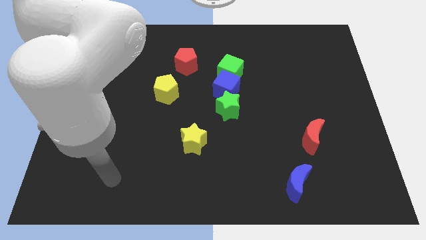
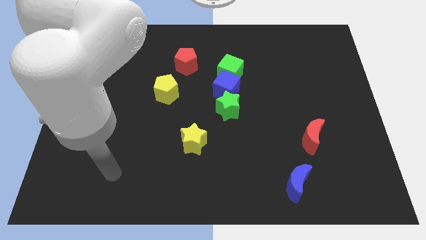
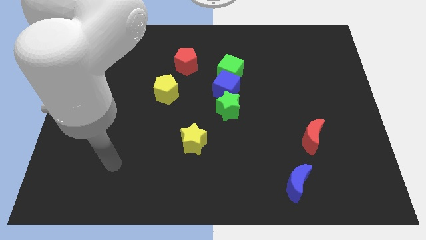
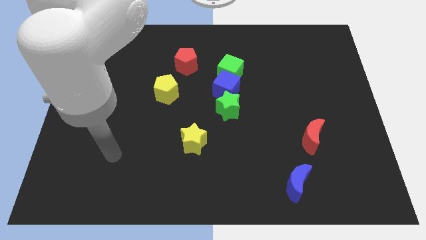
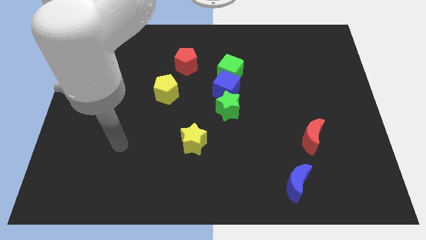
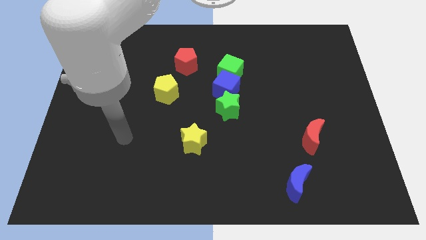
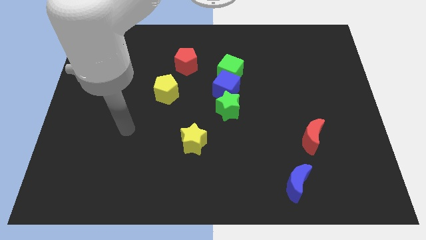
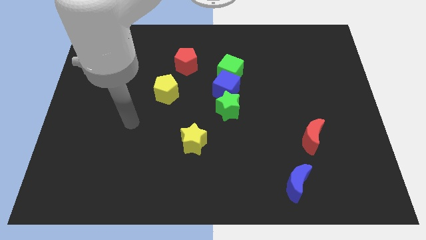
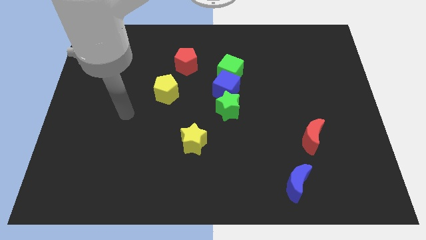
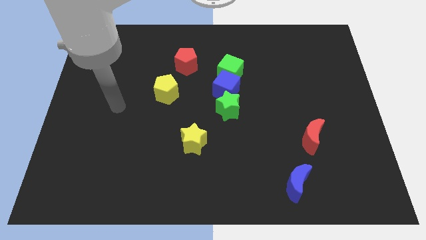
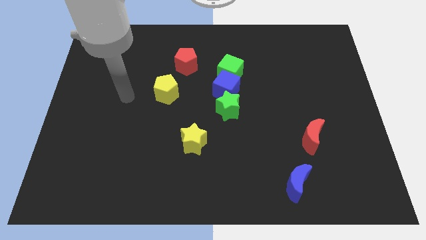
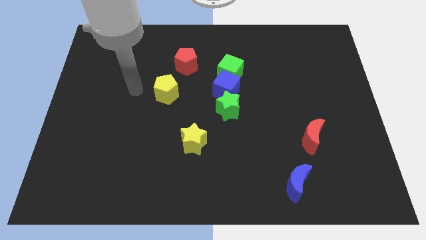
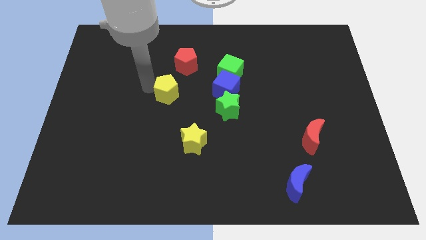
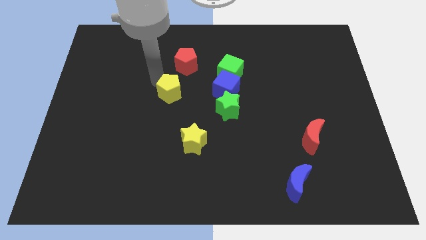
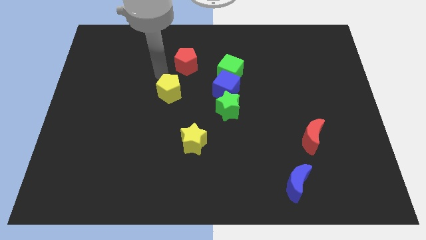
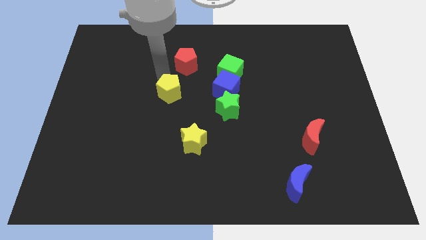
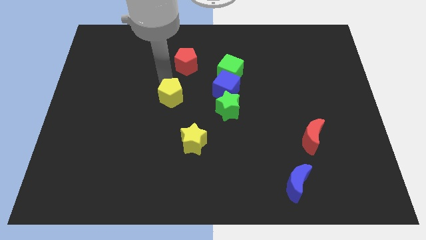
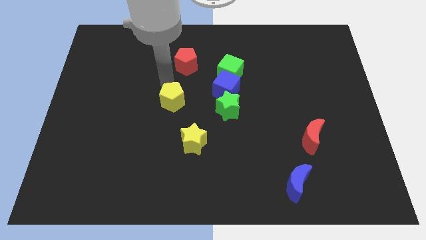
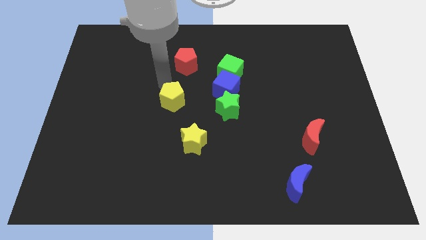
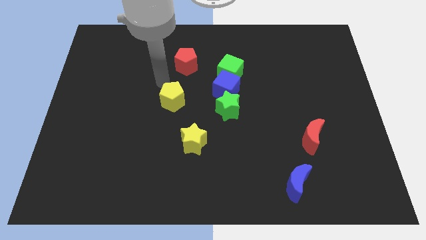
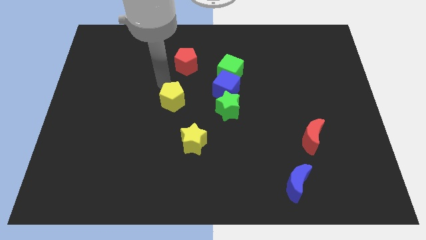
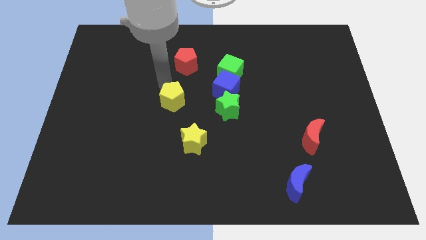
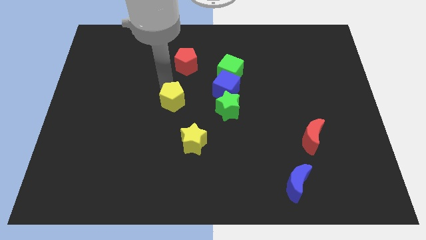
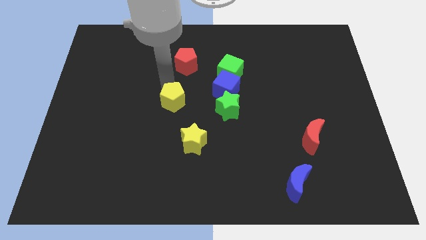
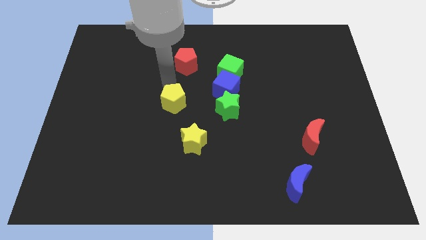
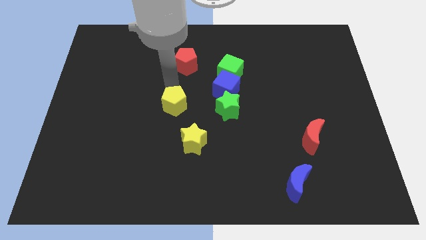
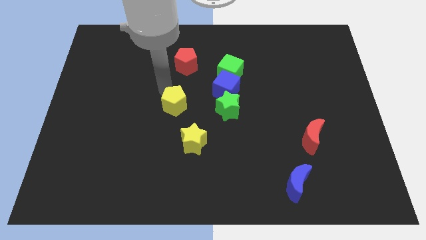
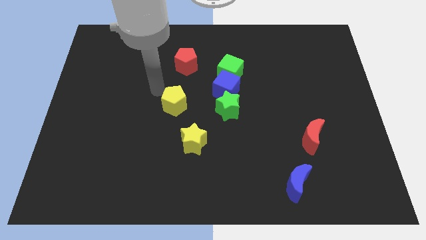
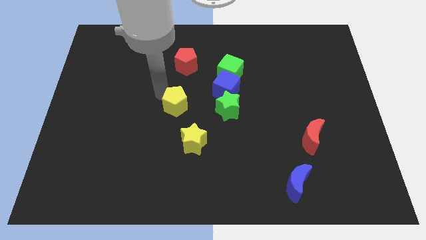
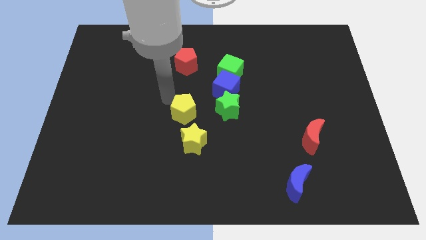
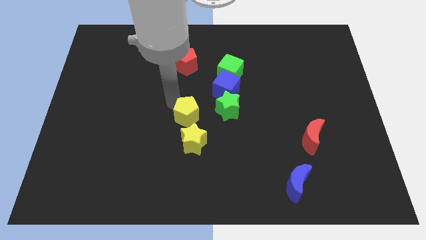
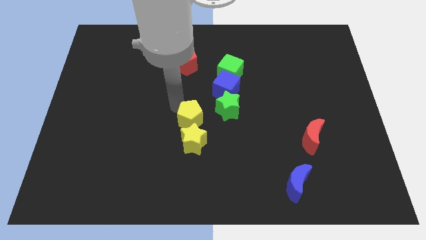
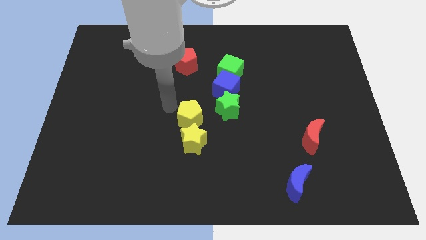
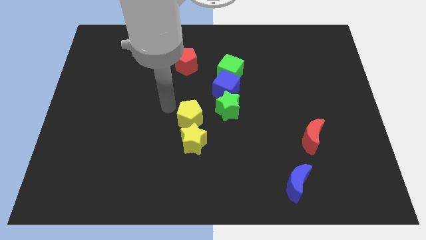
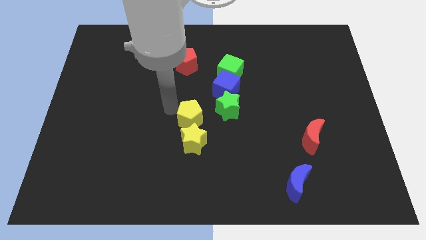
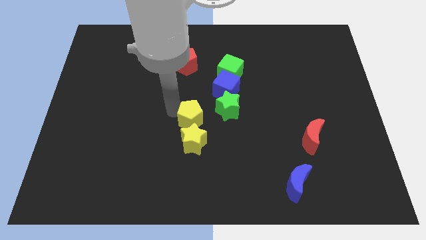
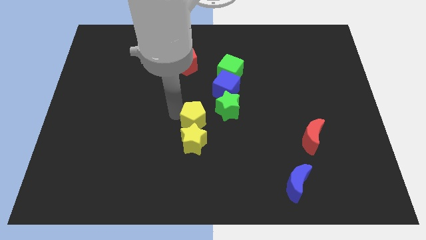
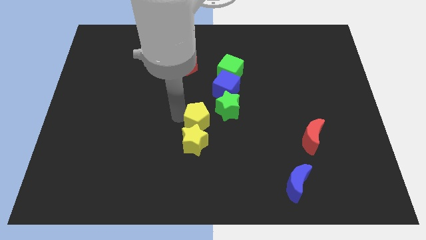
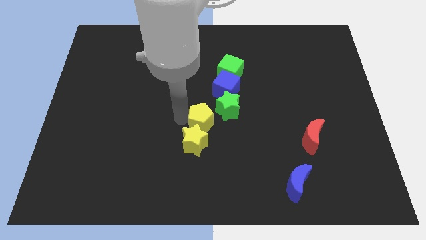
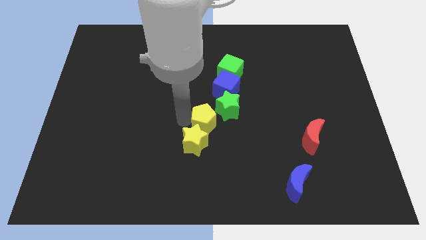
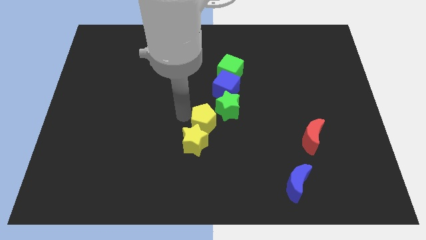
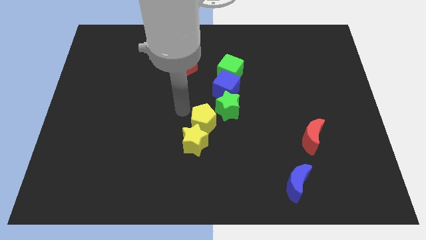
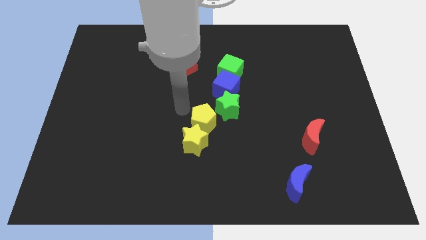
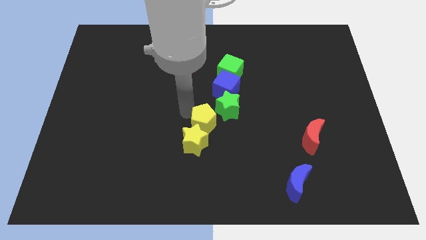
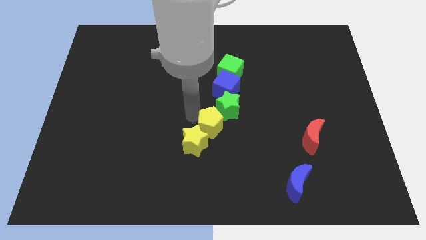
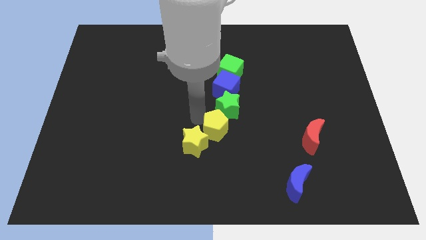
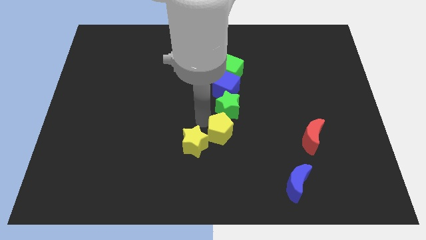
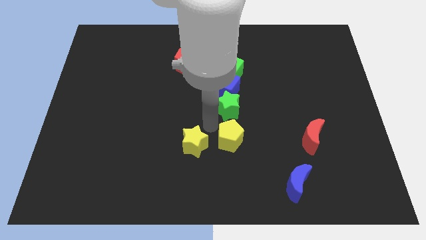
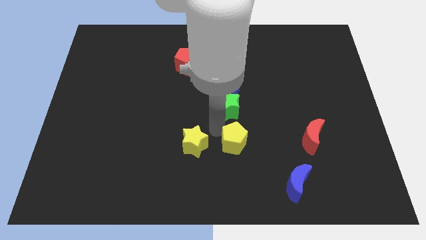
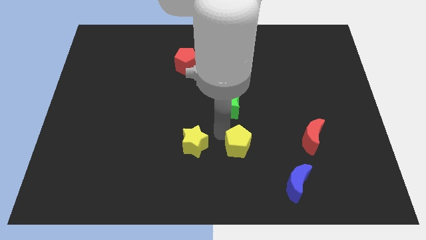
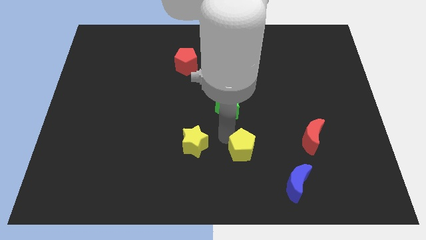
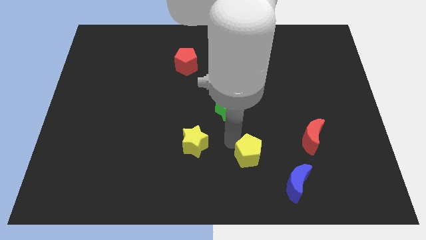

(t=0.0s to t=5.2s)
push the yellow pentagon diagonally up and to the left of the blue moon

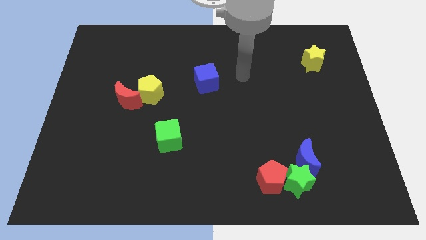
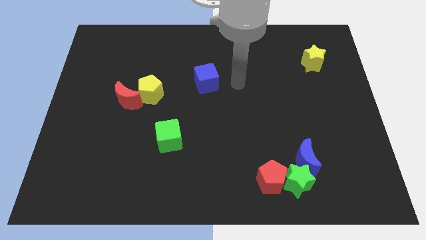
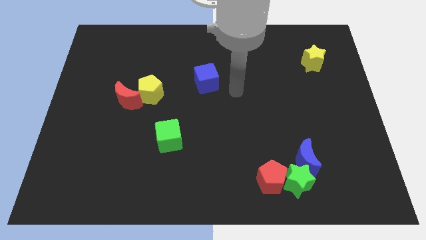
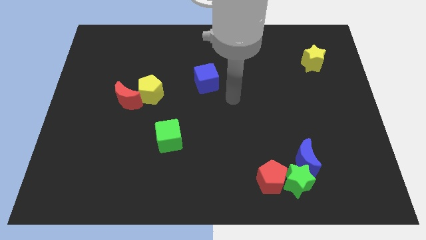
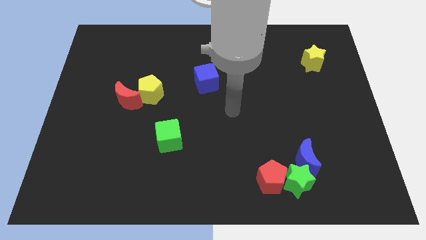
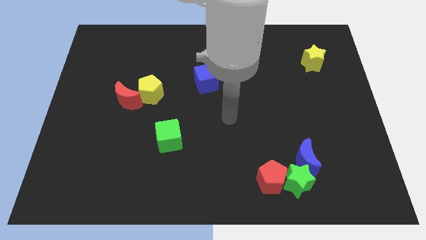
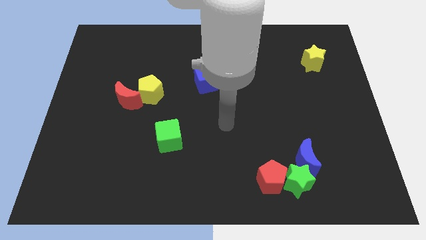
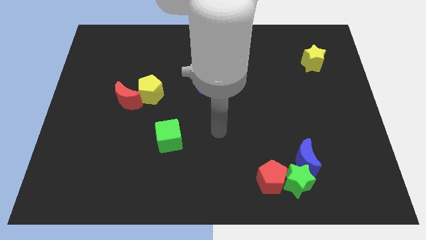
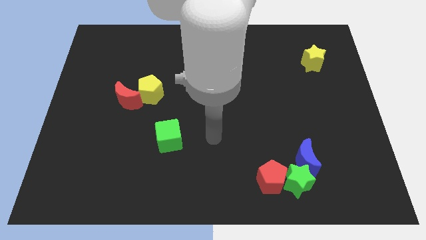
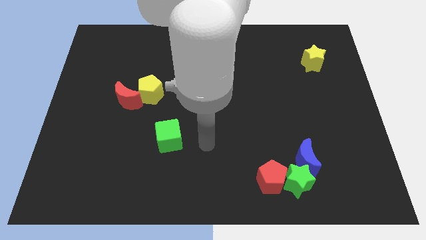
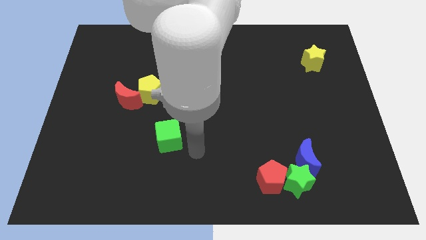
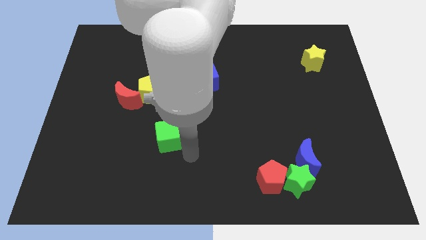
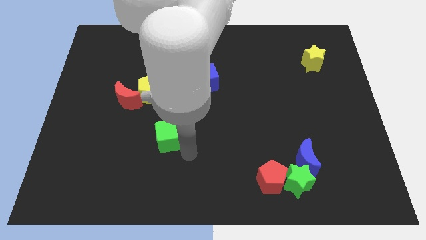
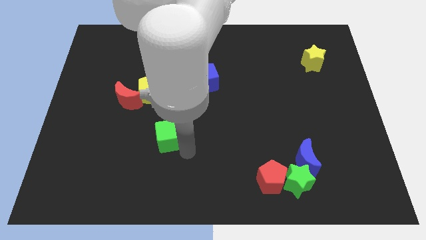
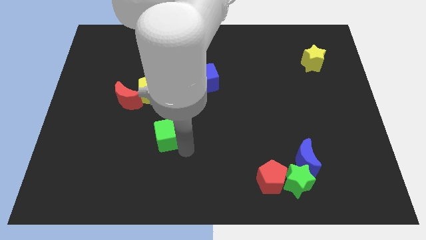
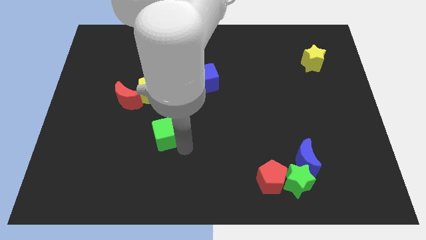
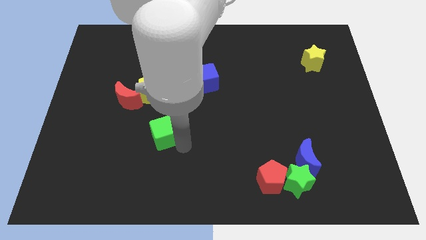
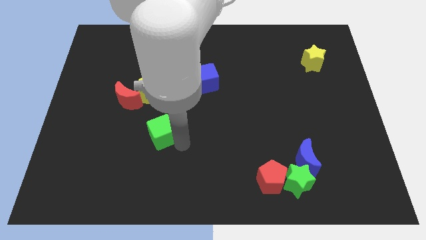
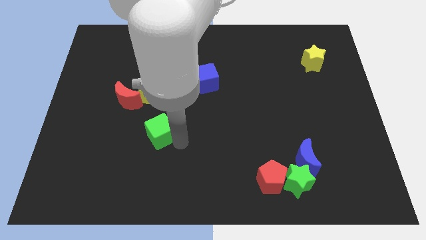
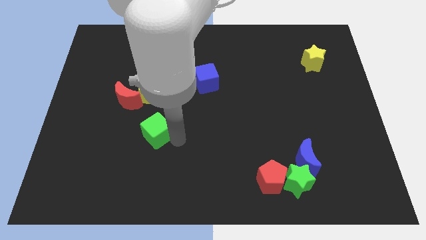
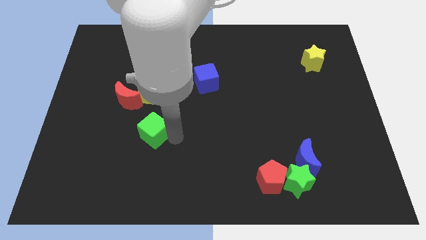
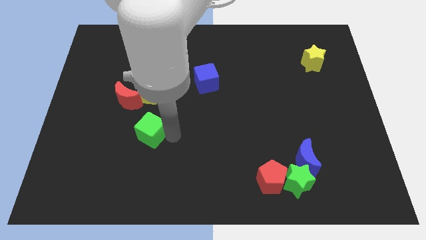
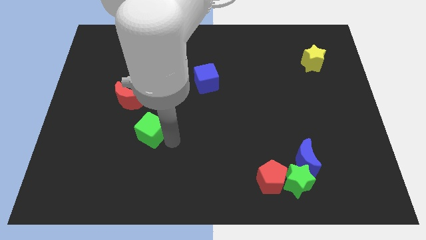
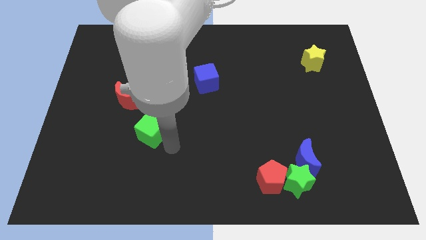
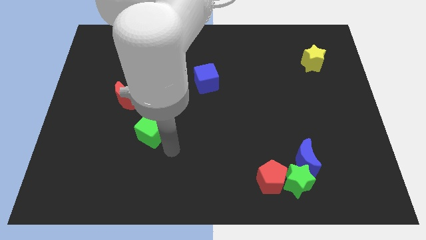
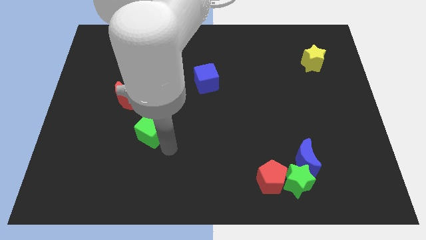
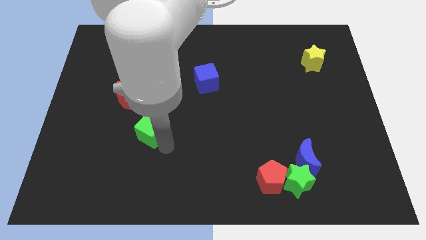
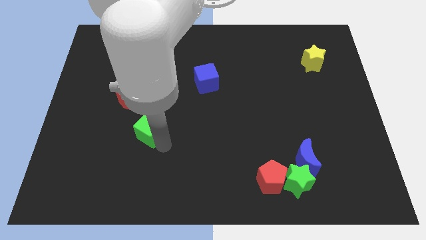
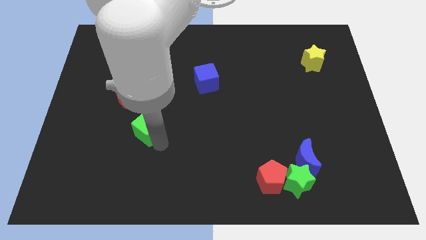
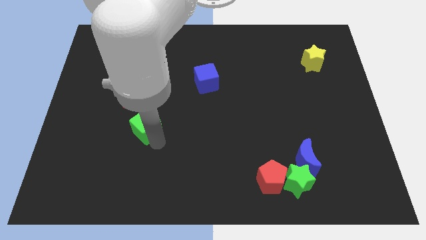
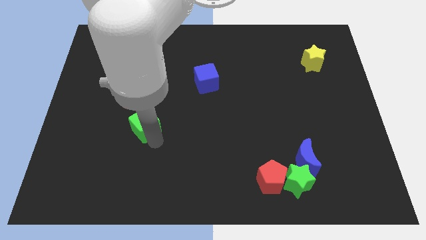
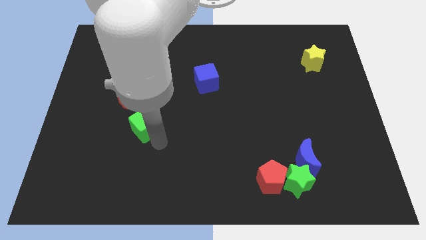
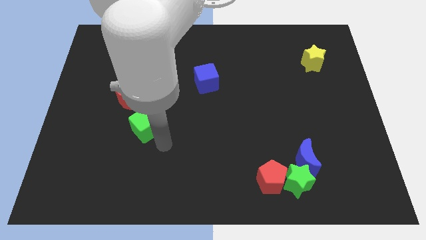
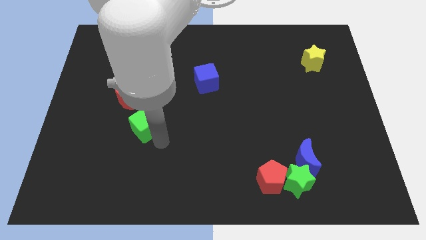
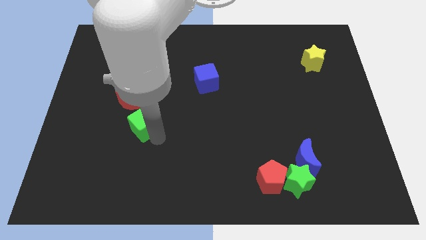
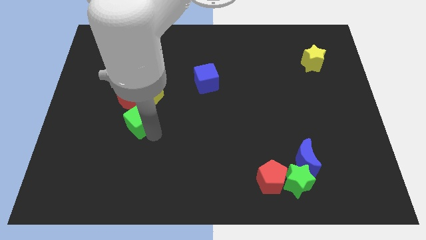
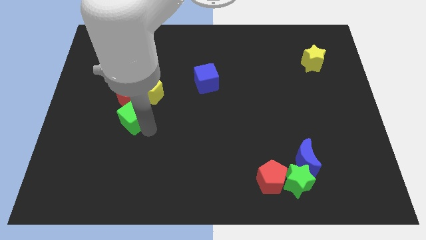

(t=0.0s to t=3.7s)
put the green cube diagonally down and to the left of the yellow pentagon
